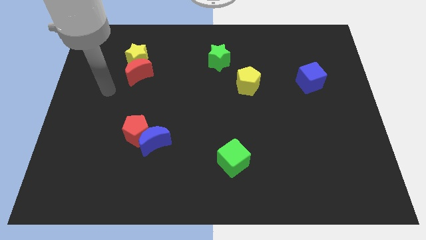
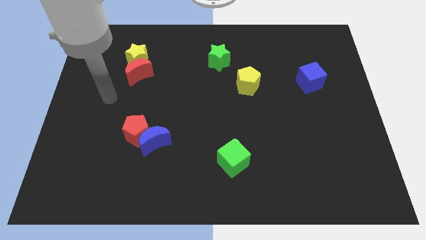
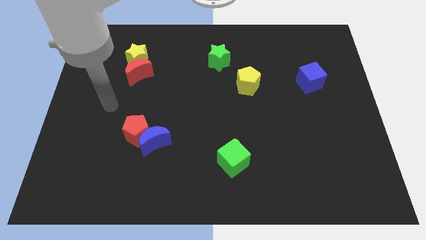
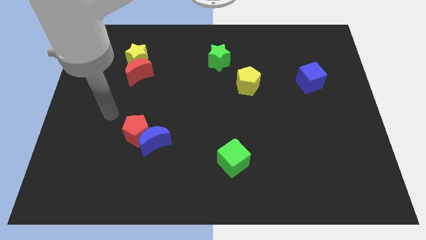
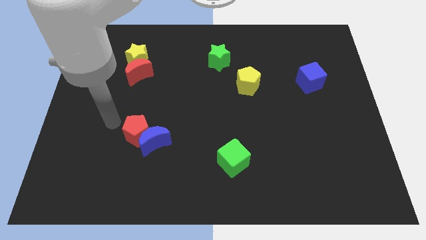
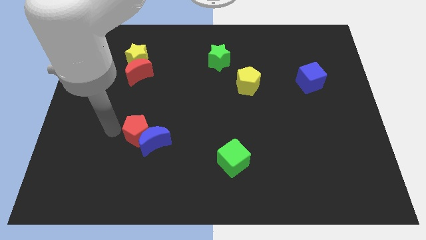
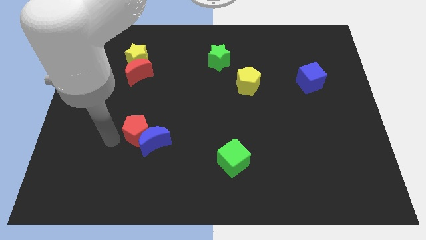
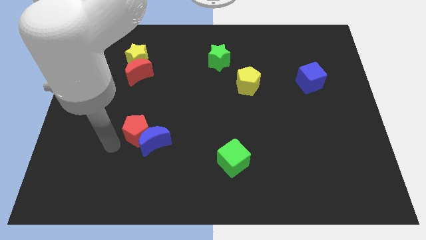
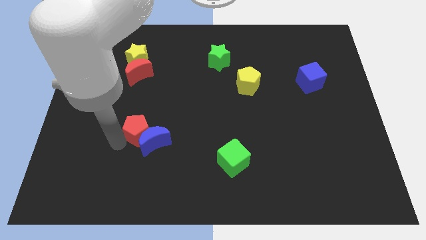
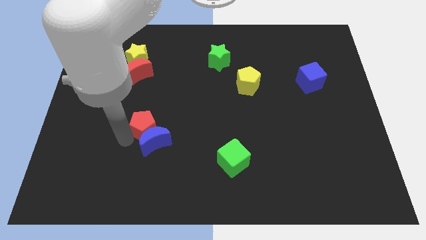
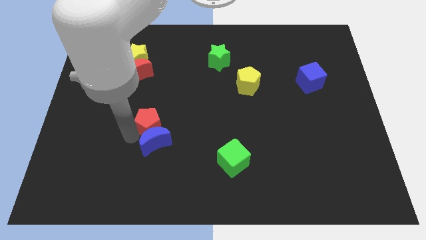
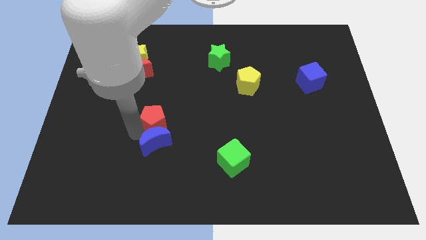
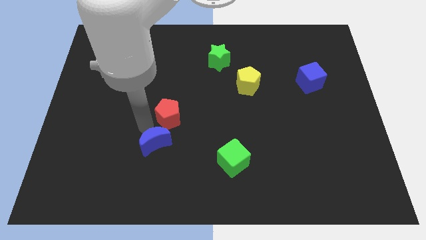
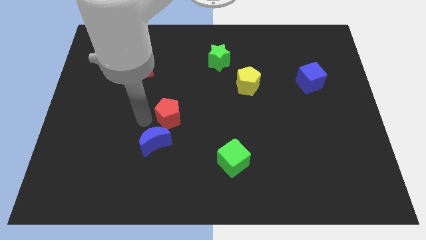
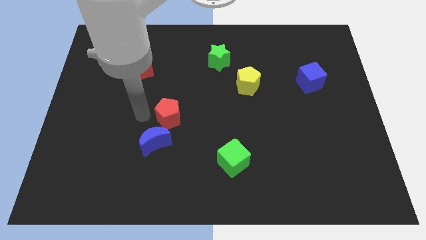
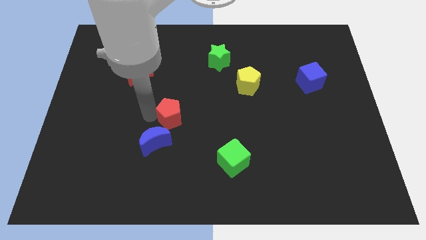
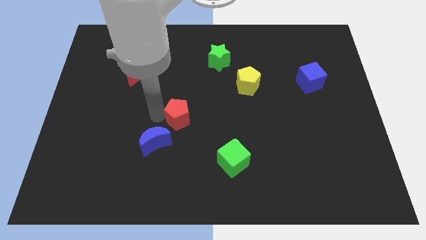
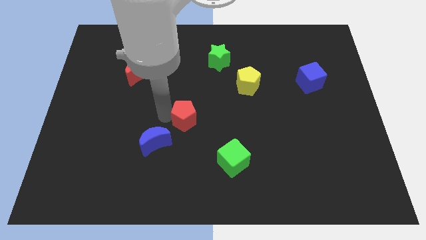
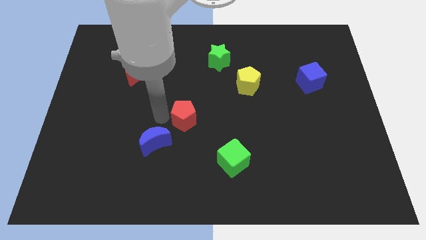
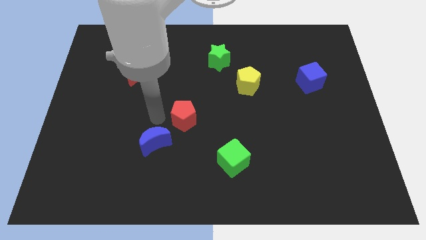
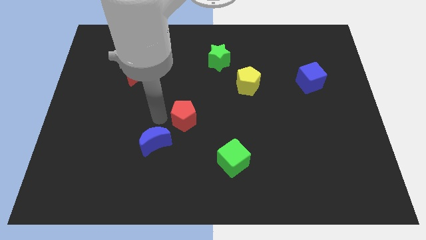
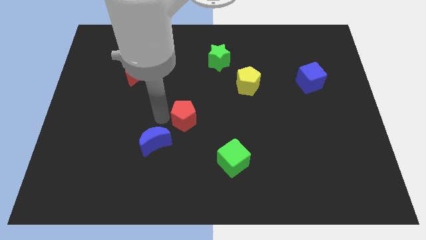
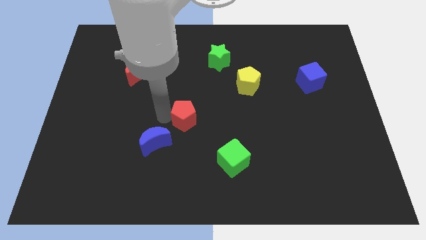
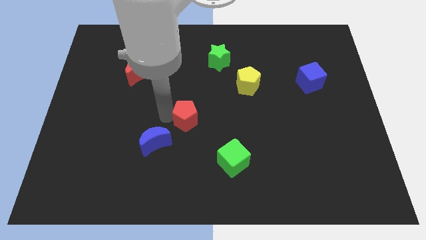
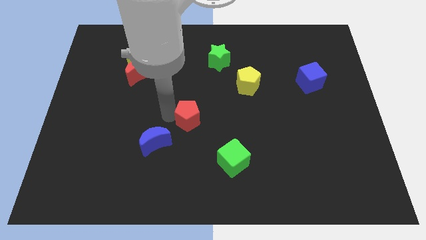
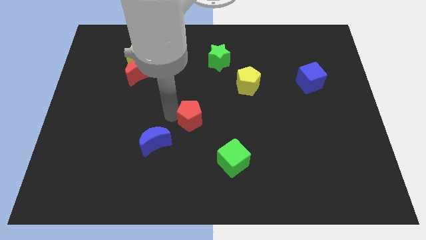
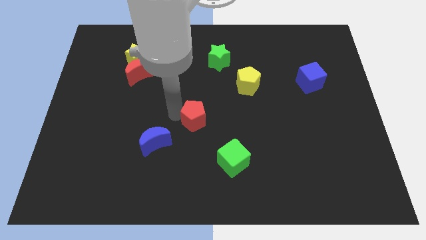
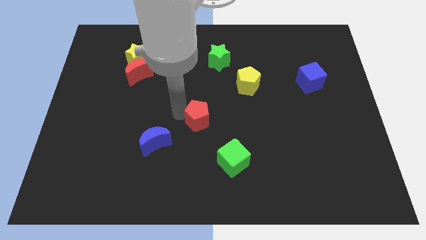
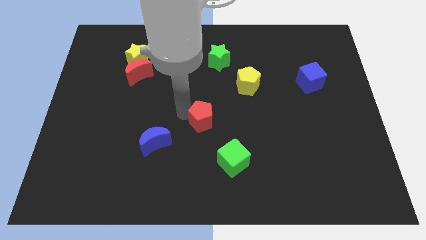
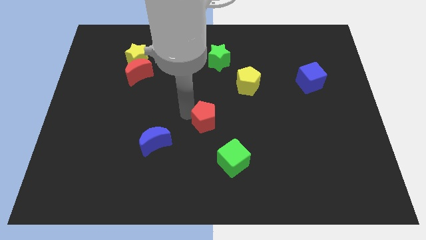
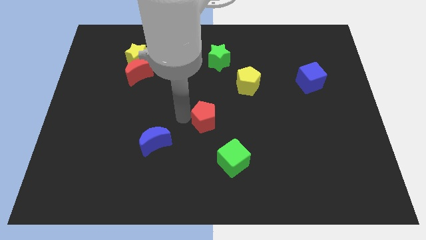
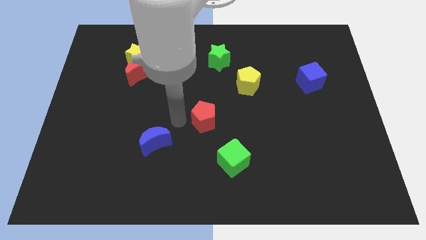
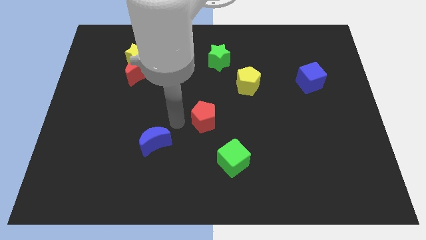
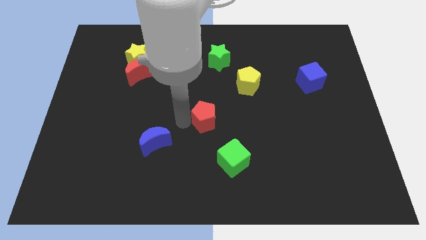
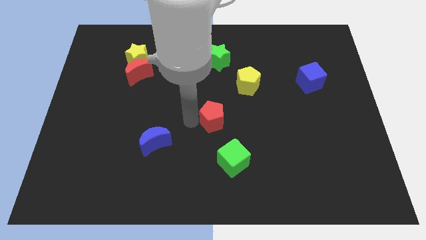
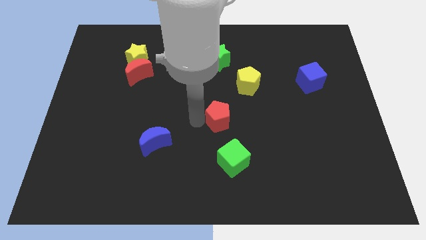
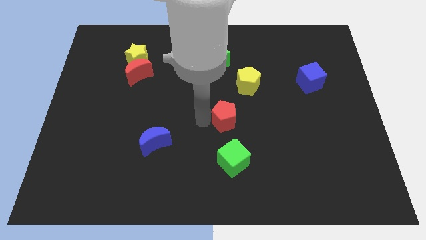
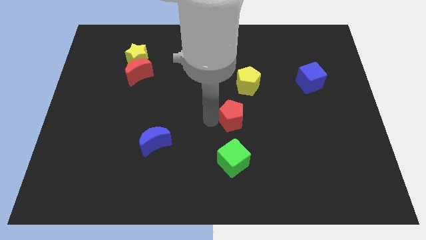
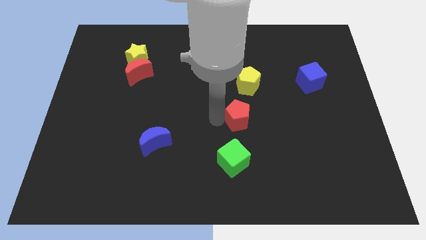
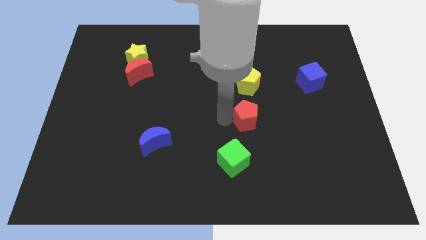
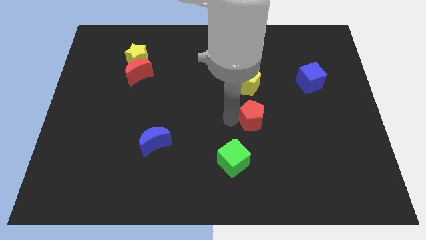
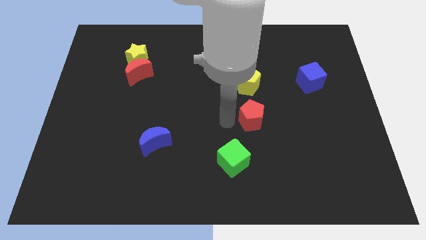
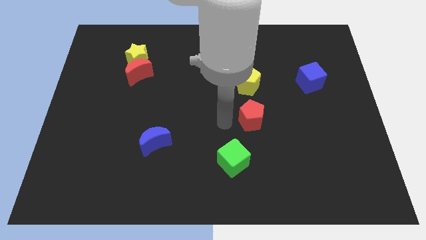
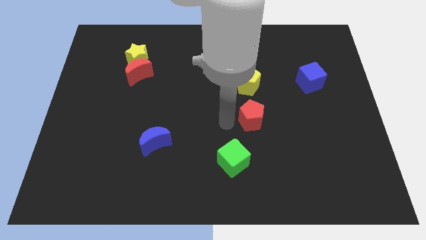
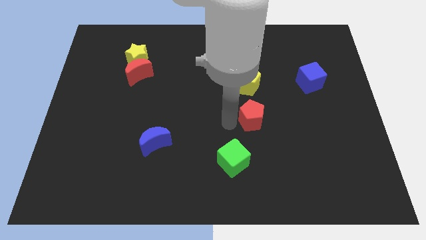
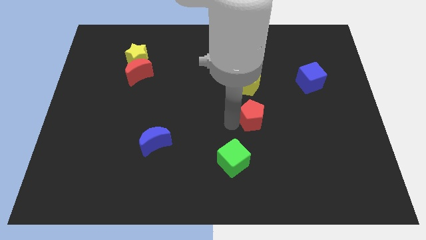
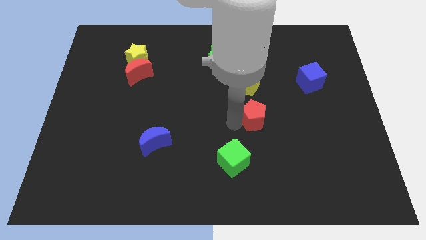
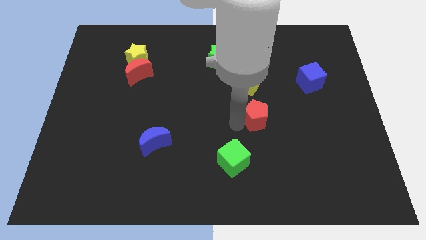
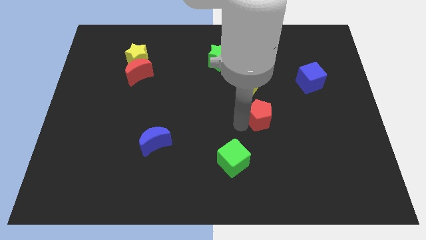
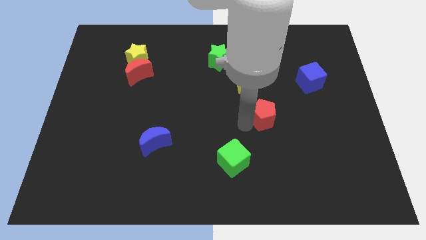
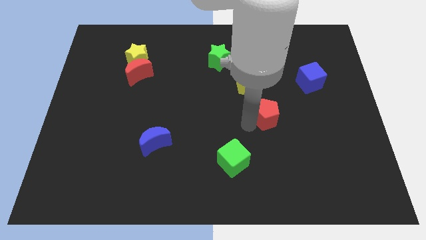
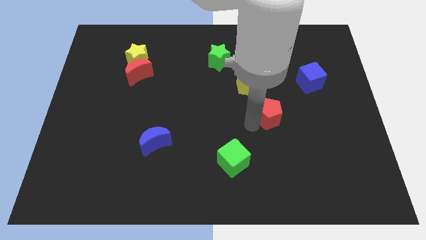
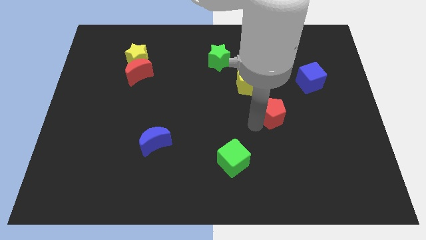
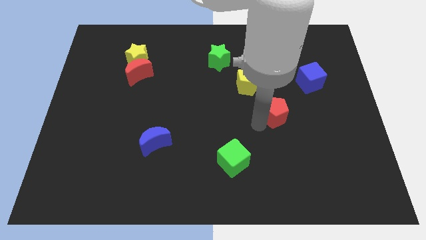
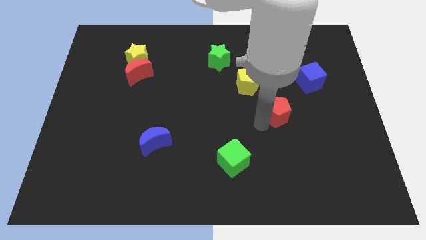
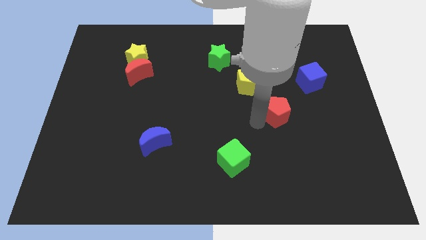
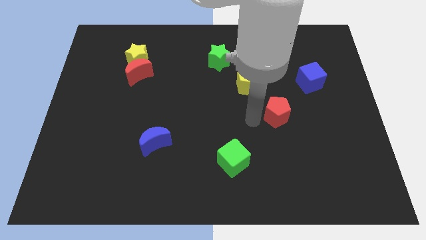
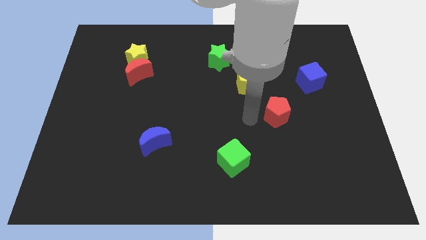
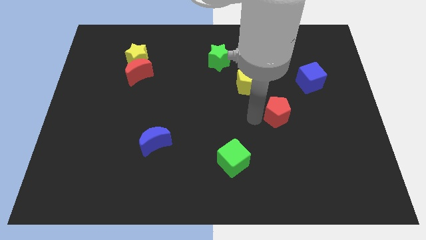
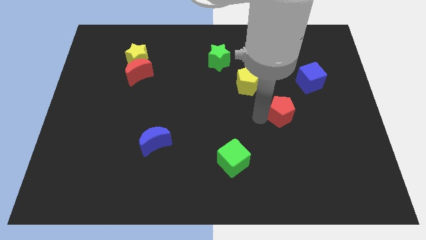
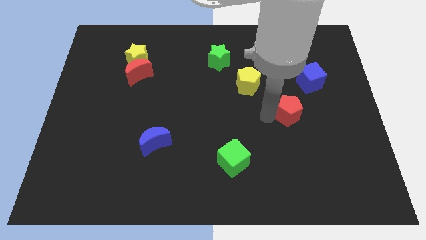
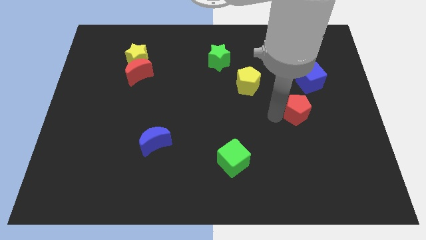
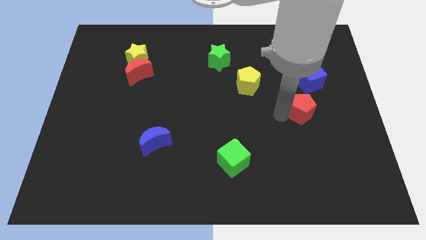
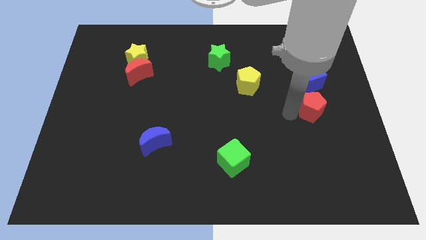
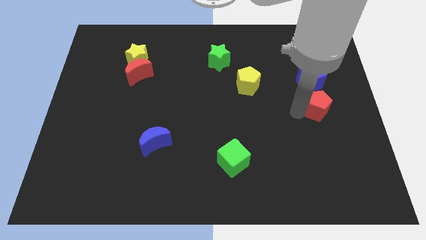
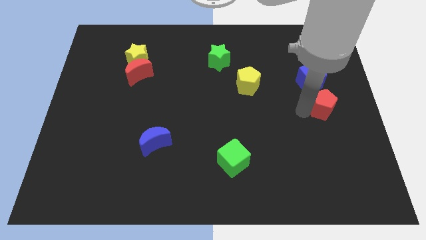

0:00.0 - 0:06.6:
put the red pentagon to the center right

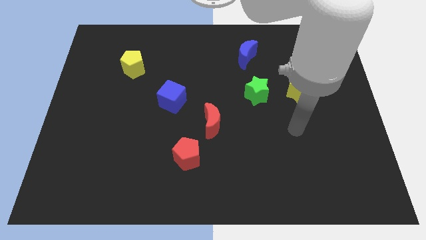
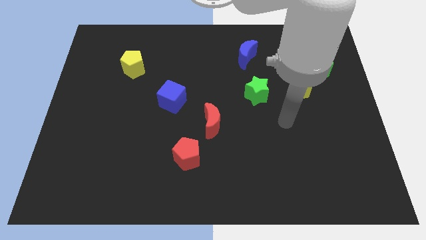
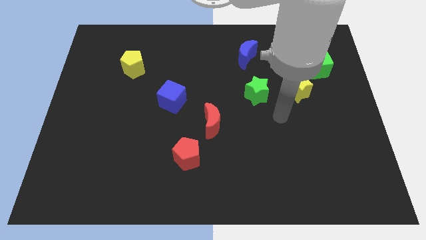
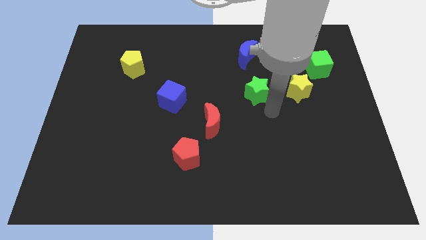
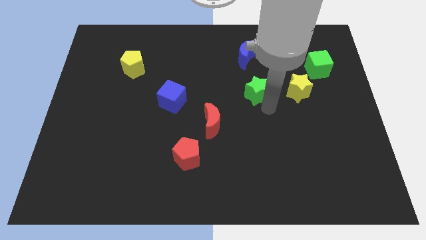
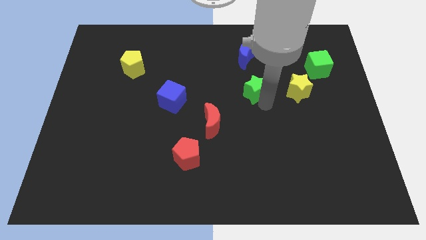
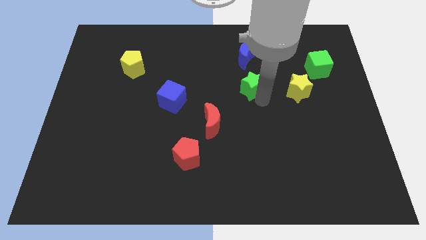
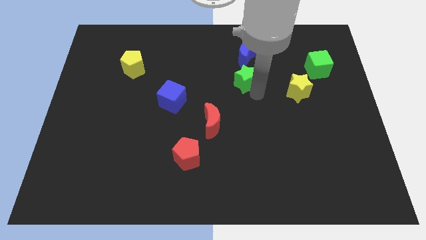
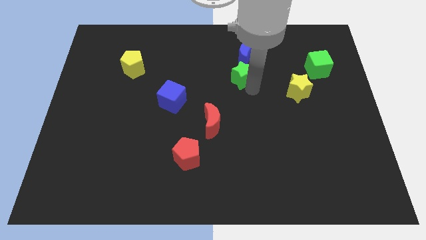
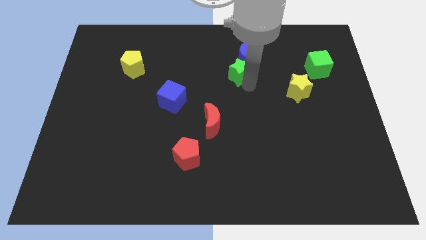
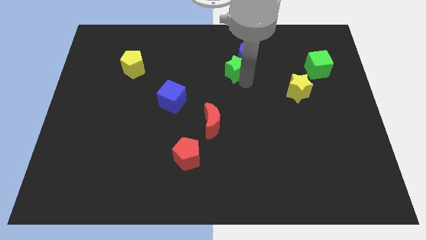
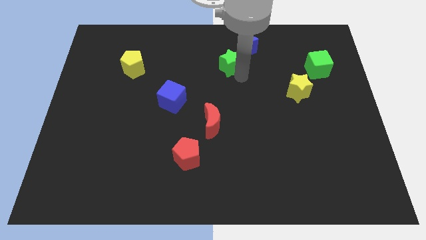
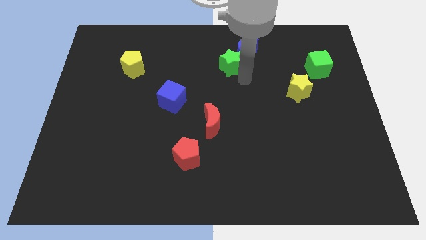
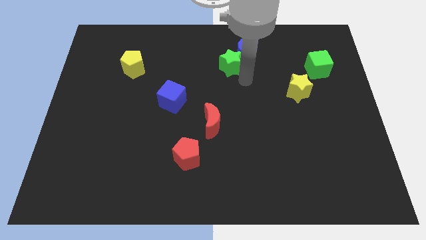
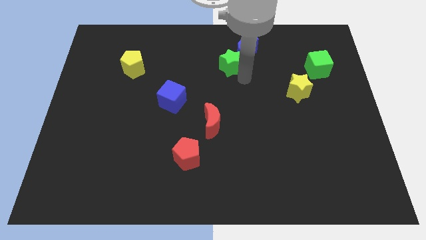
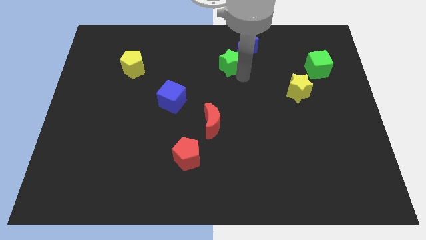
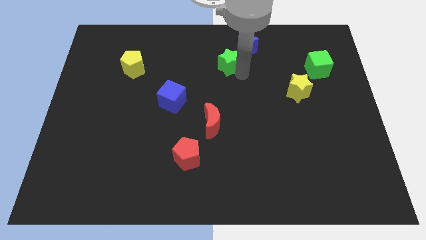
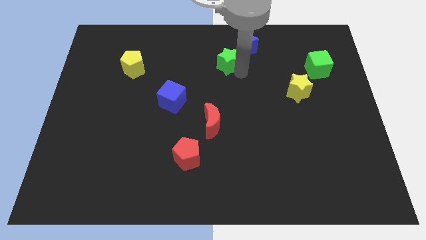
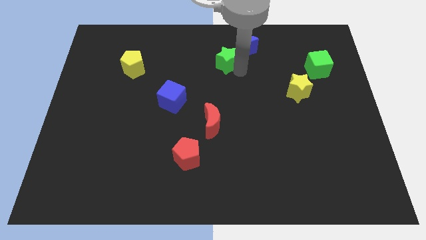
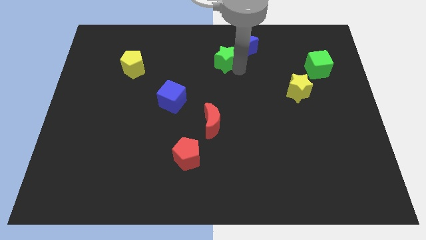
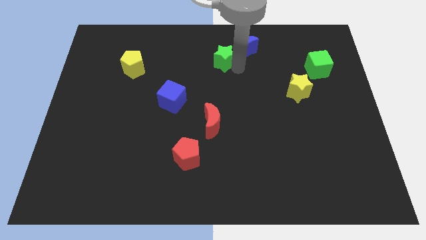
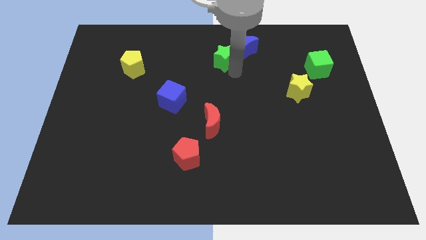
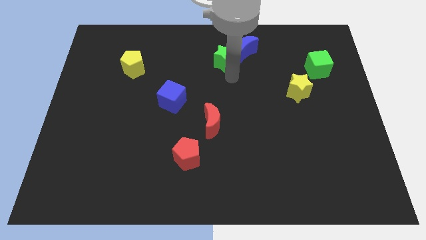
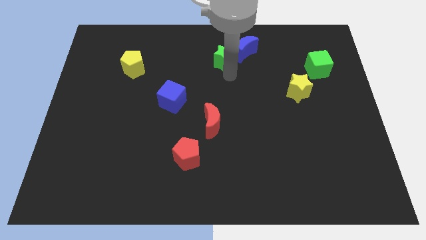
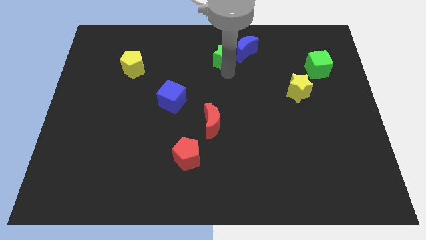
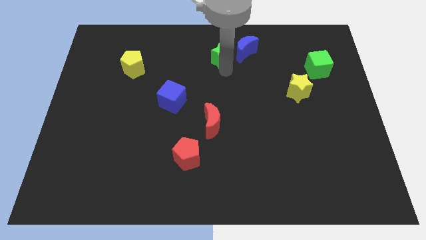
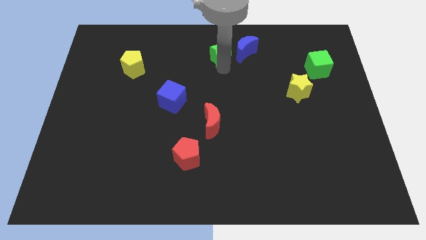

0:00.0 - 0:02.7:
move the green star to the towards your base
